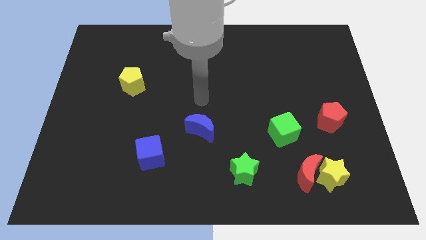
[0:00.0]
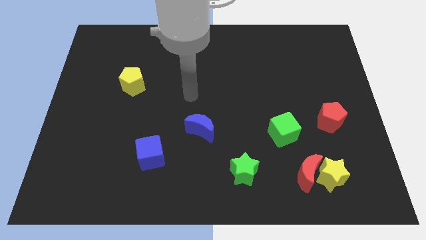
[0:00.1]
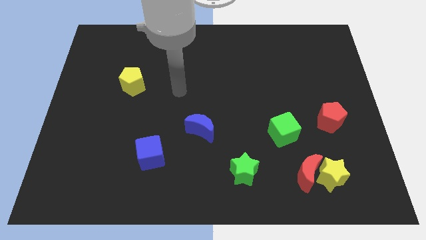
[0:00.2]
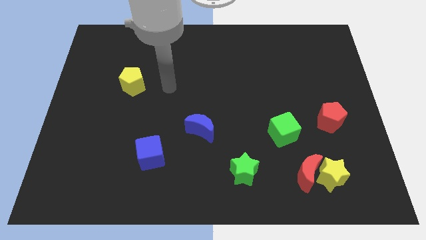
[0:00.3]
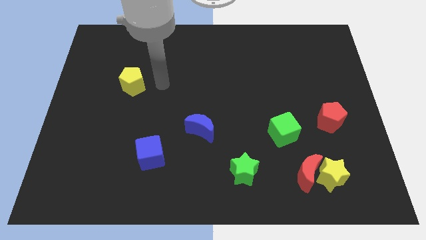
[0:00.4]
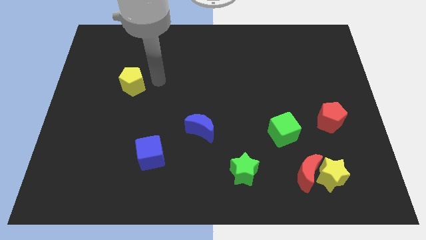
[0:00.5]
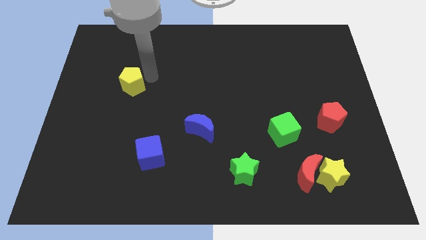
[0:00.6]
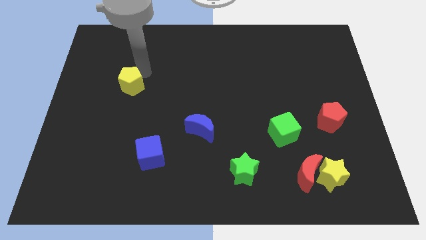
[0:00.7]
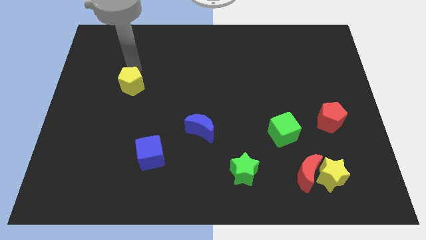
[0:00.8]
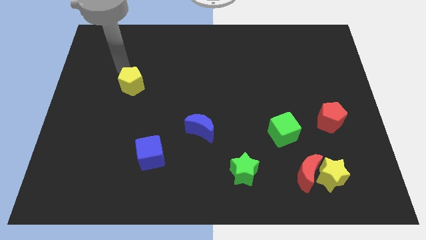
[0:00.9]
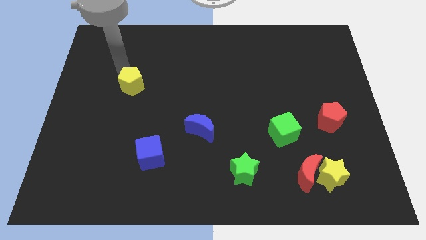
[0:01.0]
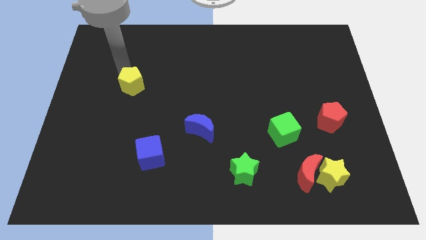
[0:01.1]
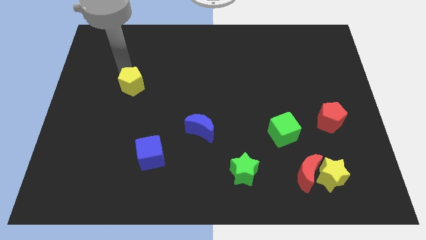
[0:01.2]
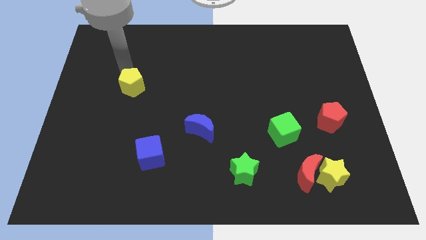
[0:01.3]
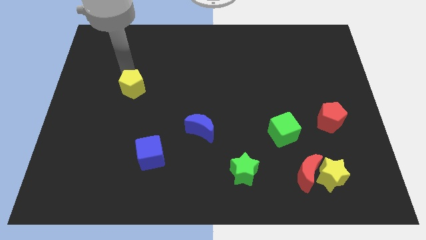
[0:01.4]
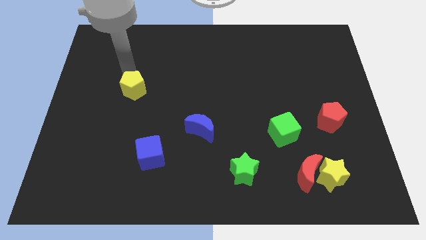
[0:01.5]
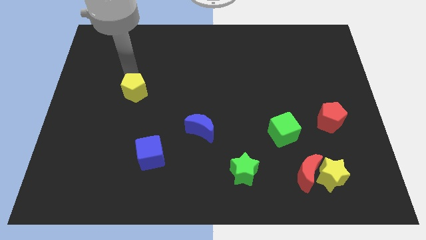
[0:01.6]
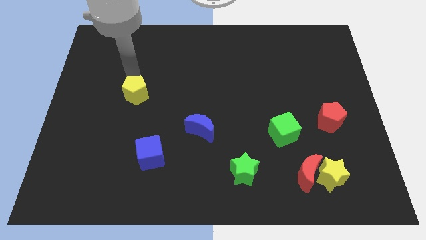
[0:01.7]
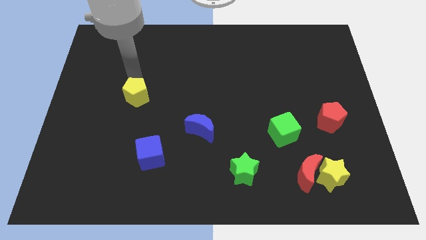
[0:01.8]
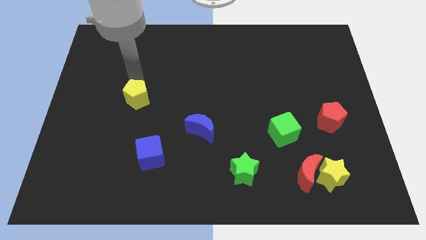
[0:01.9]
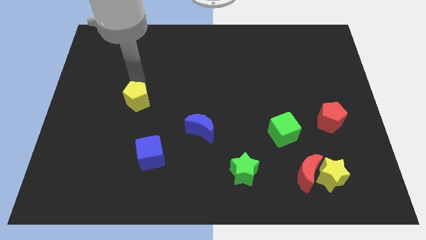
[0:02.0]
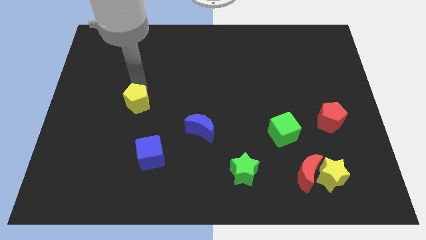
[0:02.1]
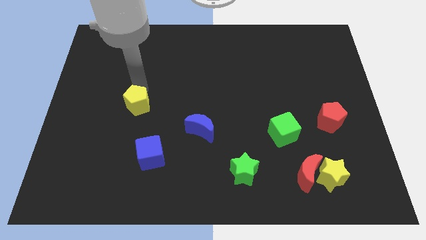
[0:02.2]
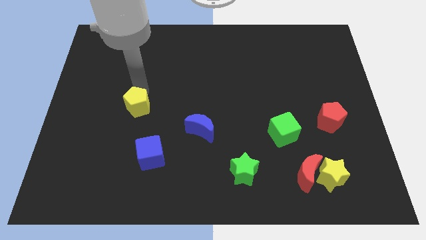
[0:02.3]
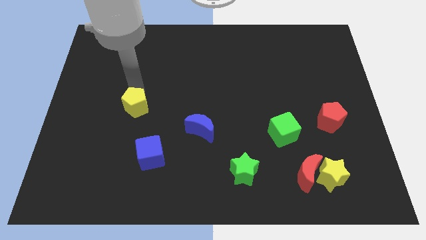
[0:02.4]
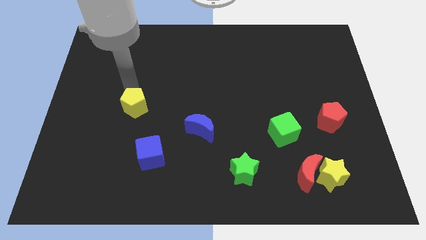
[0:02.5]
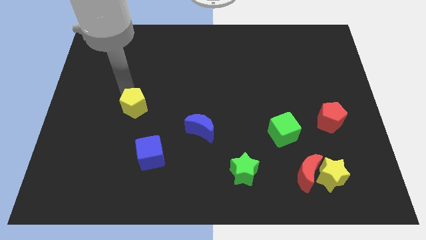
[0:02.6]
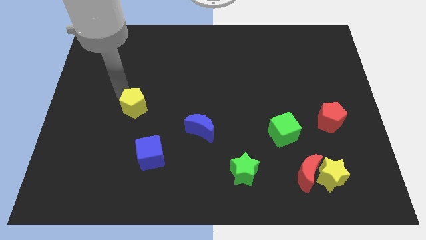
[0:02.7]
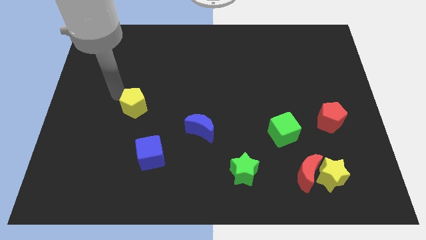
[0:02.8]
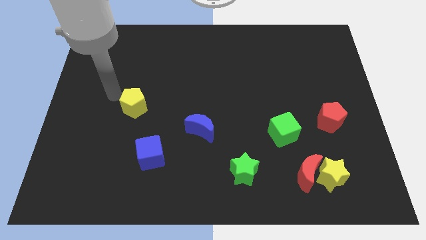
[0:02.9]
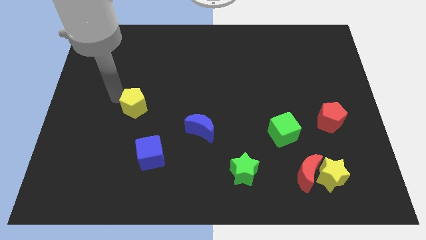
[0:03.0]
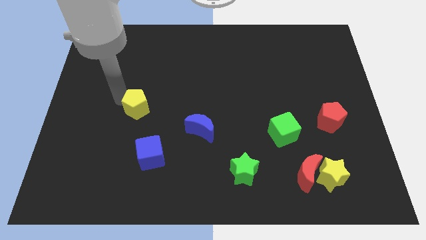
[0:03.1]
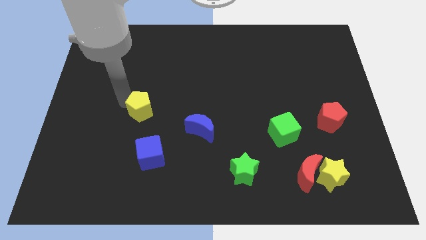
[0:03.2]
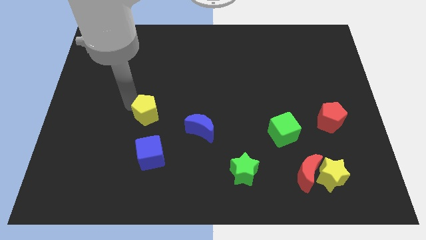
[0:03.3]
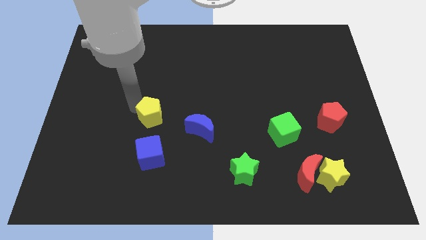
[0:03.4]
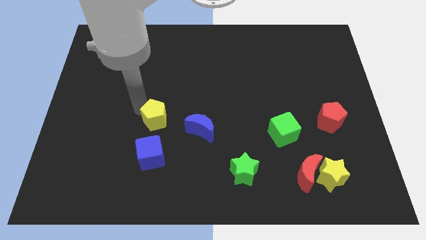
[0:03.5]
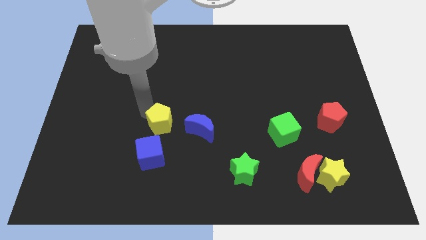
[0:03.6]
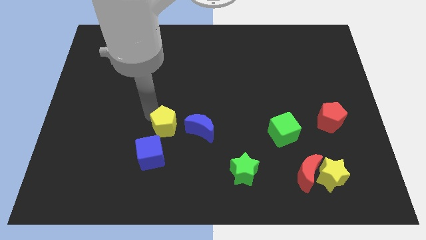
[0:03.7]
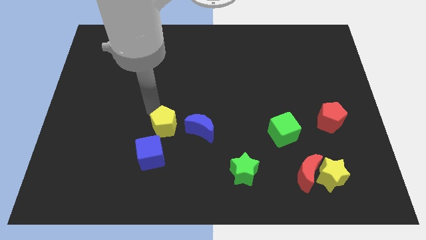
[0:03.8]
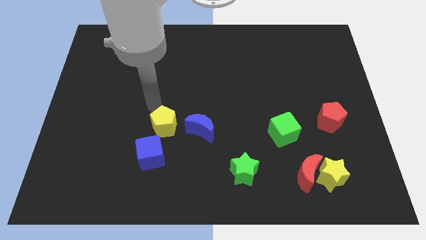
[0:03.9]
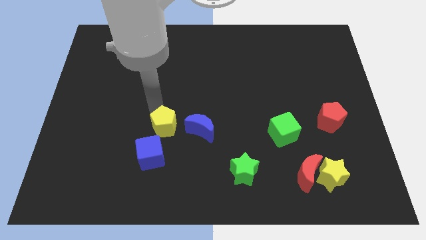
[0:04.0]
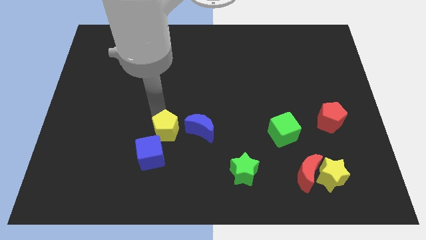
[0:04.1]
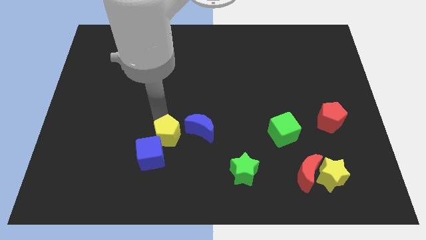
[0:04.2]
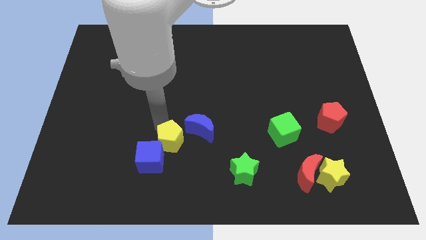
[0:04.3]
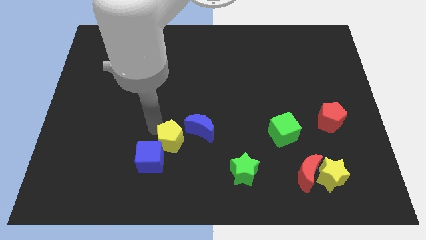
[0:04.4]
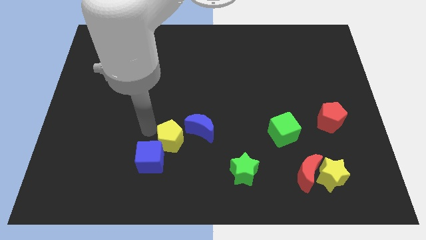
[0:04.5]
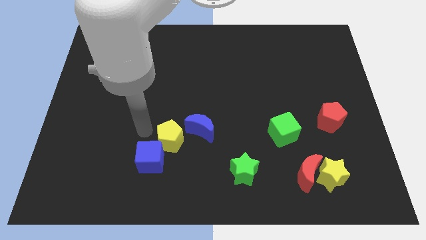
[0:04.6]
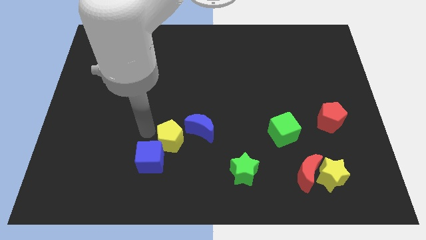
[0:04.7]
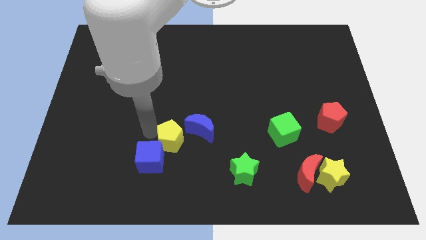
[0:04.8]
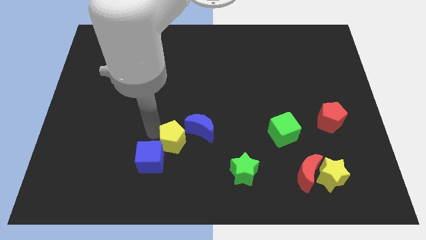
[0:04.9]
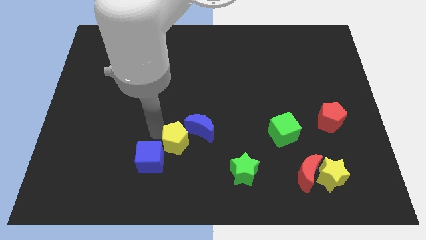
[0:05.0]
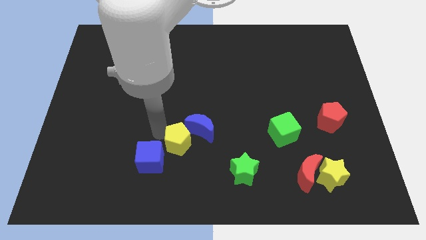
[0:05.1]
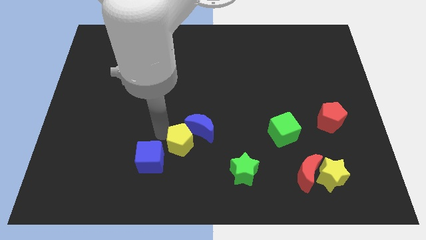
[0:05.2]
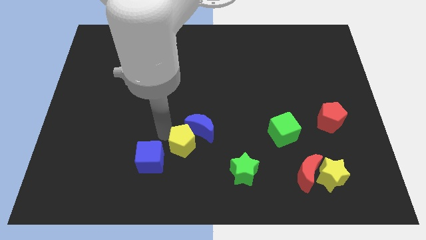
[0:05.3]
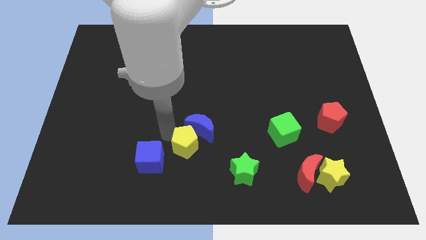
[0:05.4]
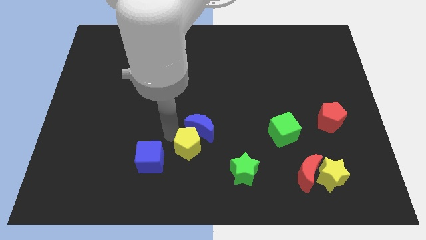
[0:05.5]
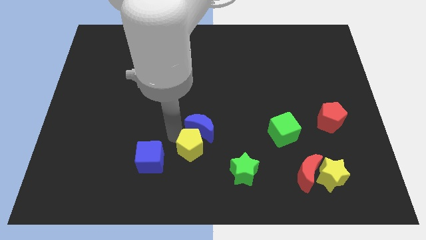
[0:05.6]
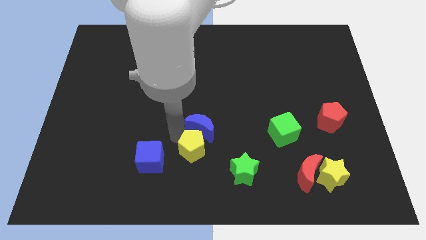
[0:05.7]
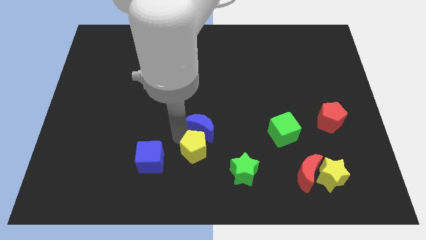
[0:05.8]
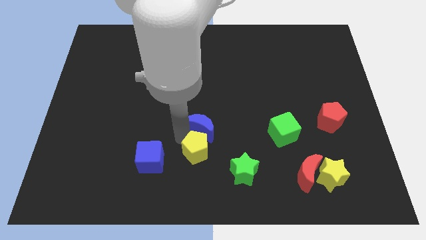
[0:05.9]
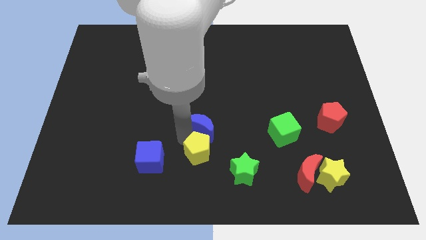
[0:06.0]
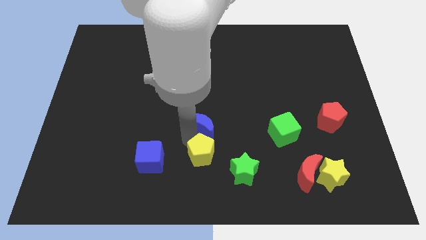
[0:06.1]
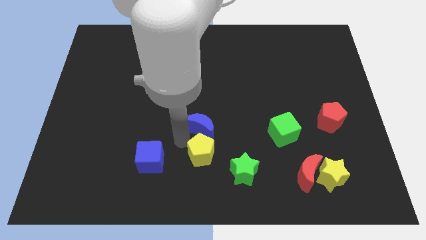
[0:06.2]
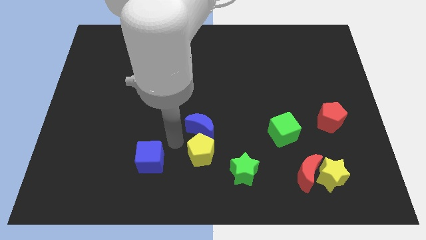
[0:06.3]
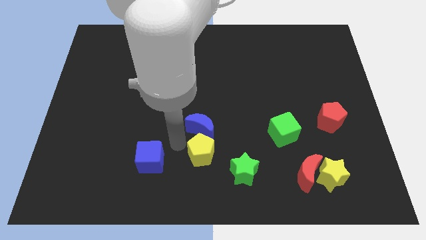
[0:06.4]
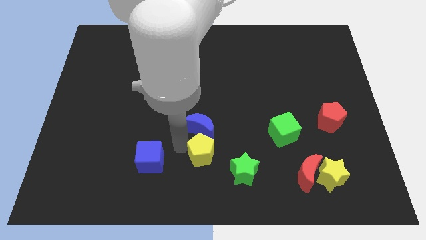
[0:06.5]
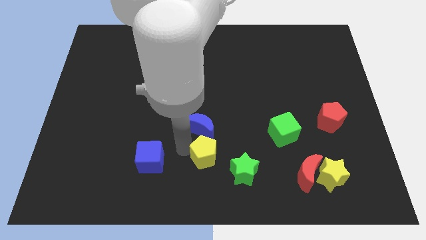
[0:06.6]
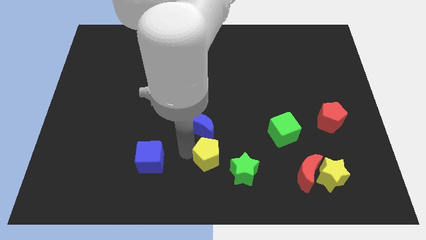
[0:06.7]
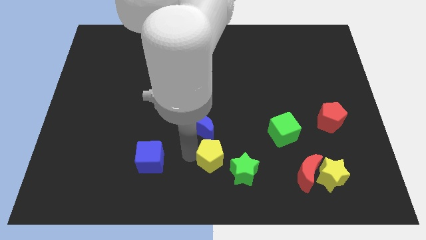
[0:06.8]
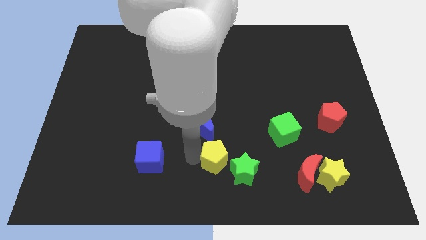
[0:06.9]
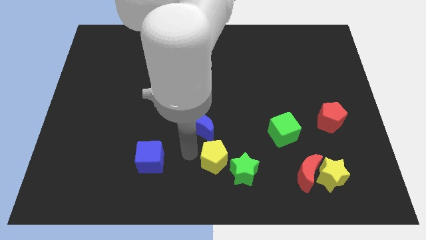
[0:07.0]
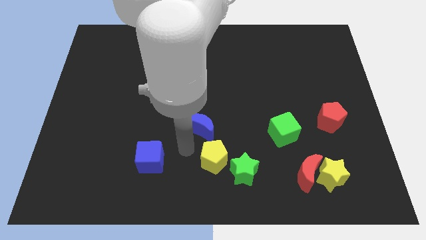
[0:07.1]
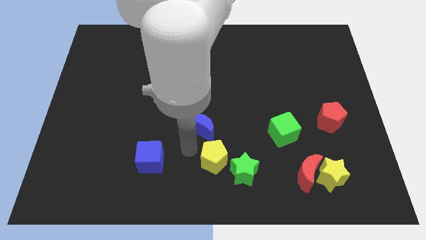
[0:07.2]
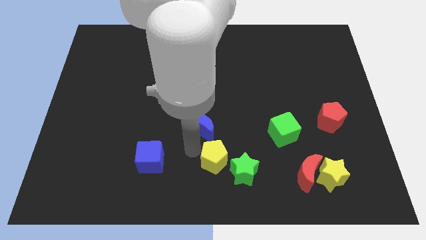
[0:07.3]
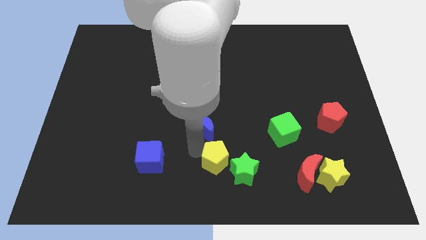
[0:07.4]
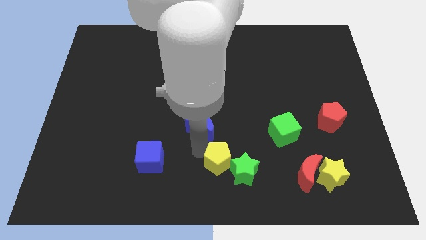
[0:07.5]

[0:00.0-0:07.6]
slide the yellow pentagon next to the green star
